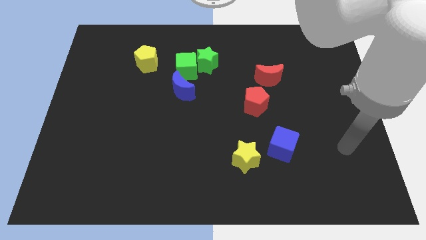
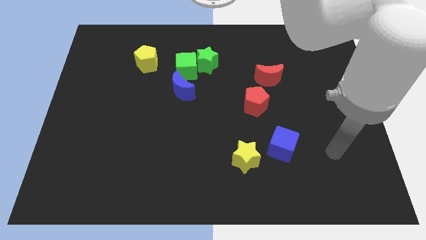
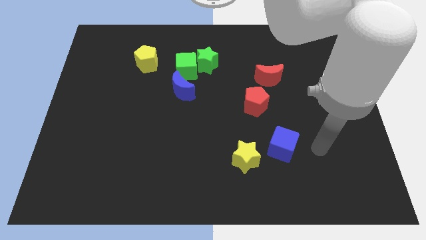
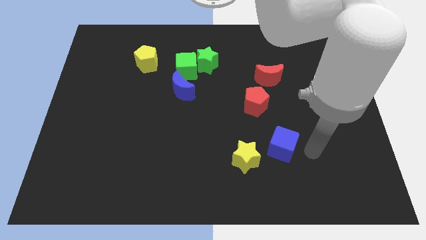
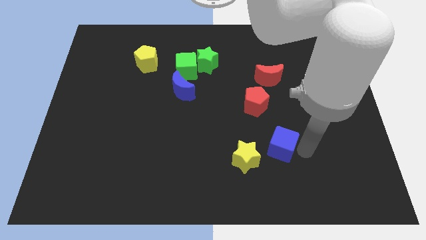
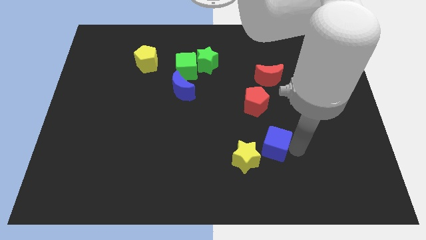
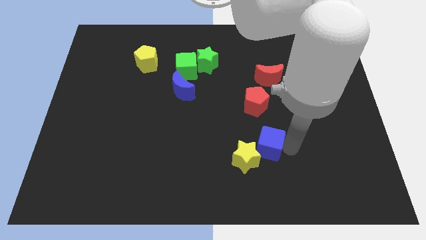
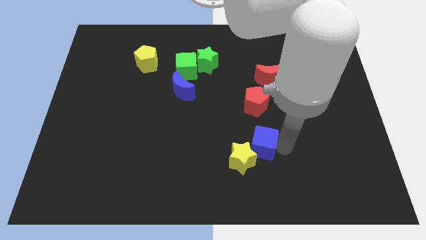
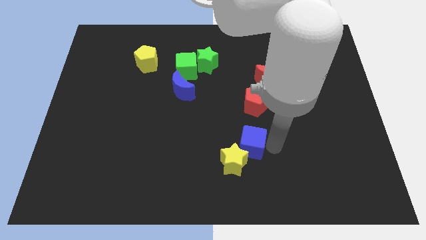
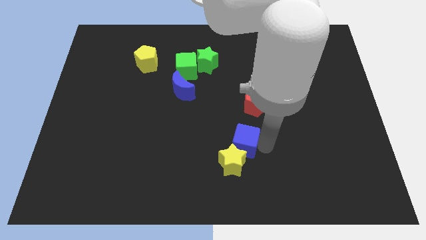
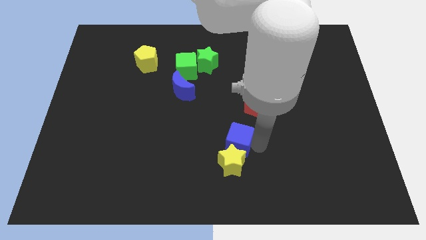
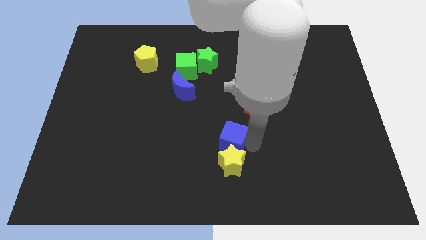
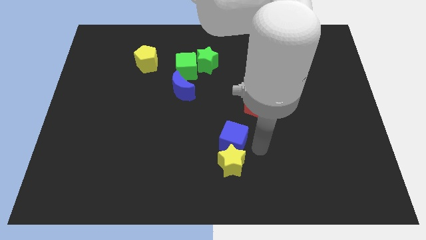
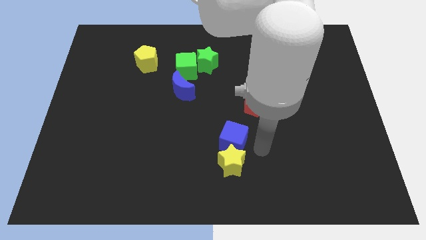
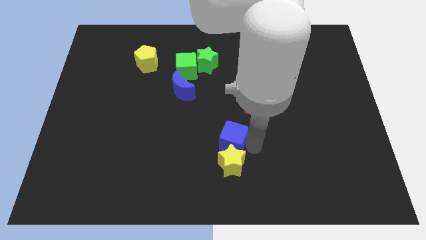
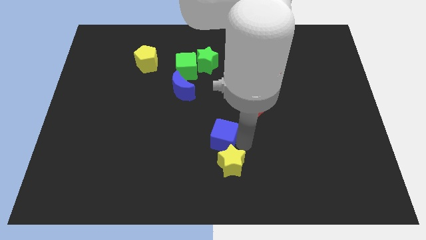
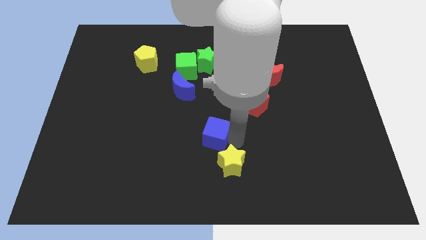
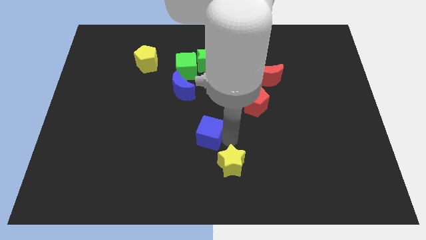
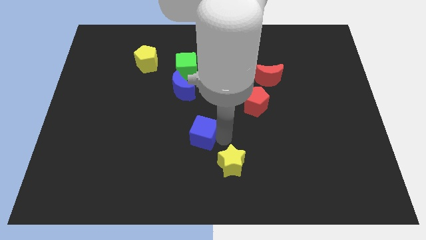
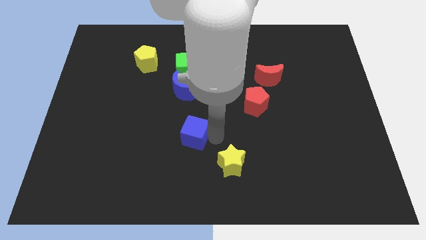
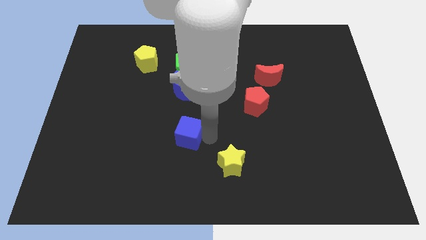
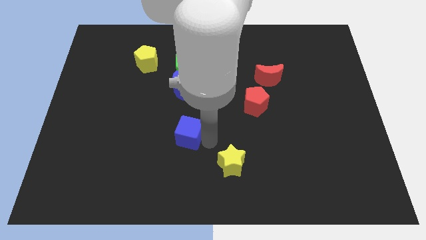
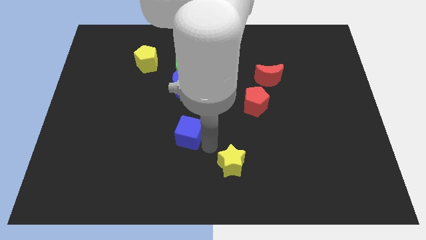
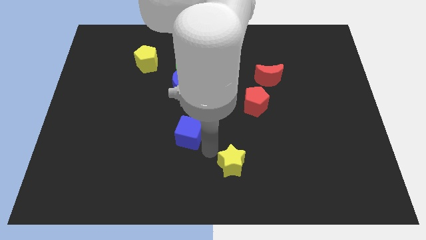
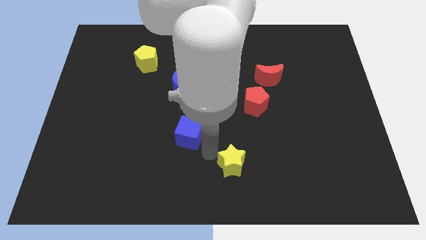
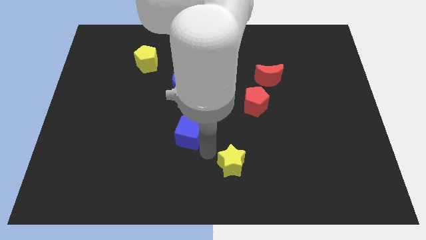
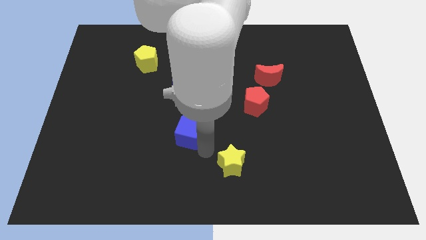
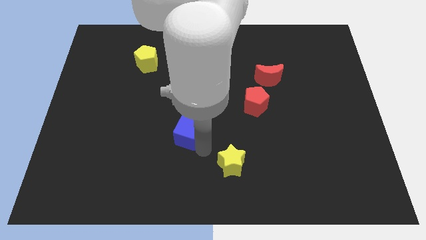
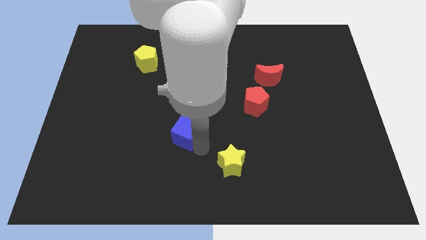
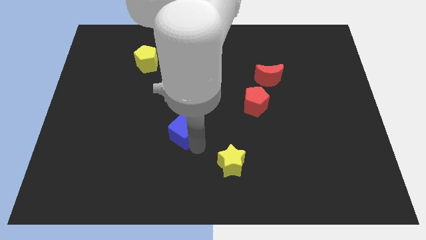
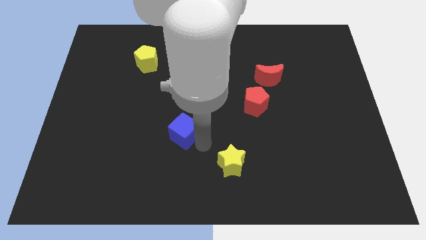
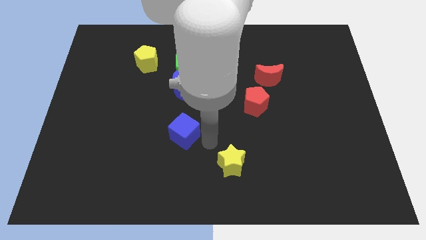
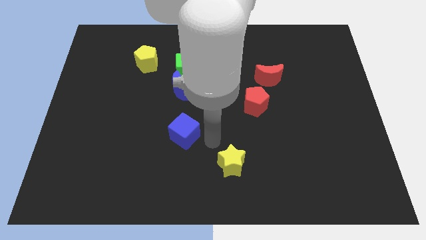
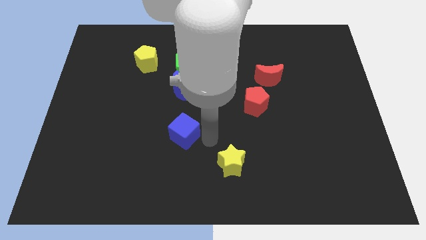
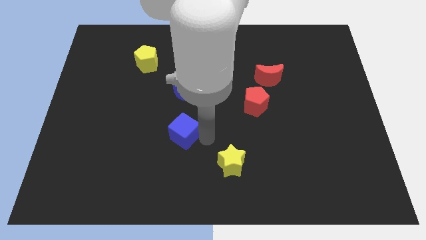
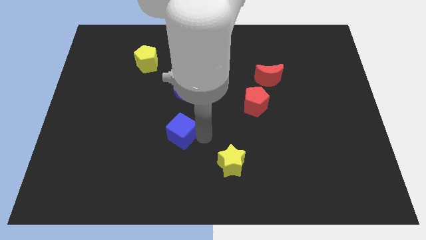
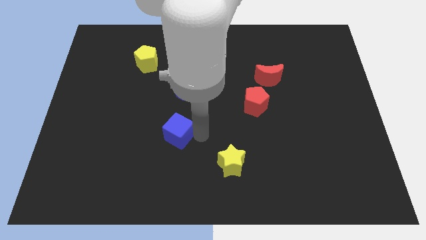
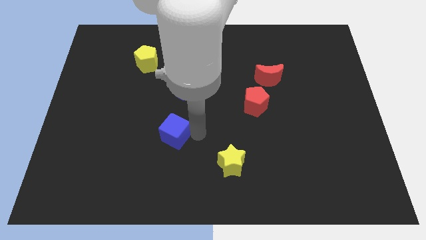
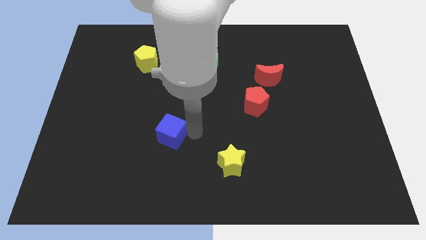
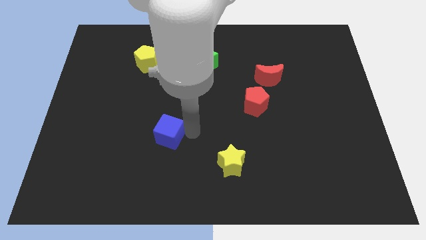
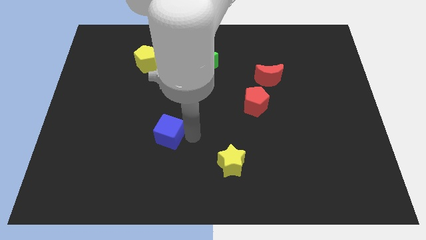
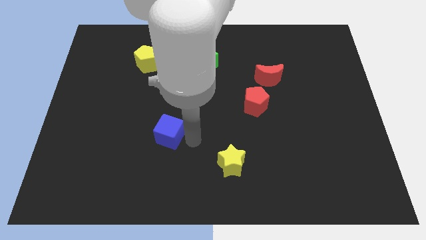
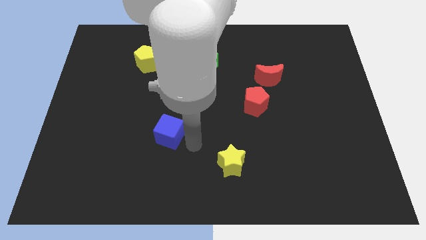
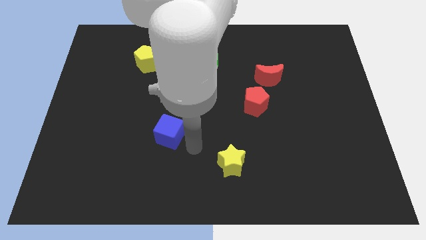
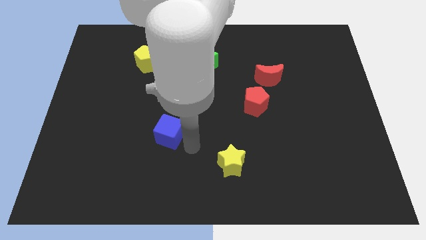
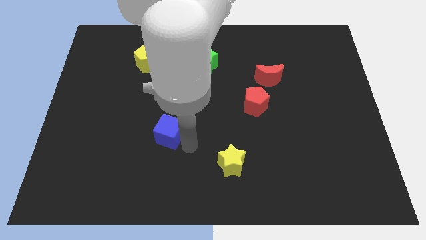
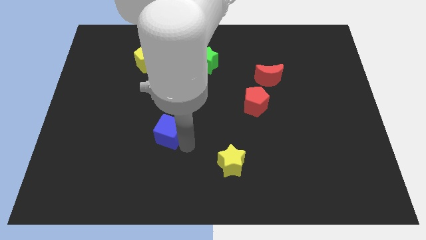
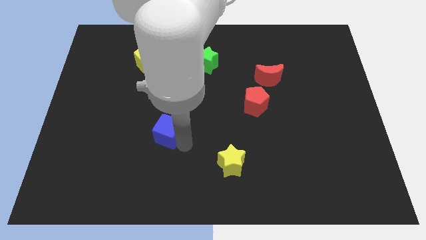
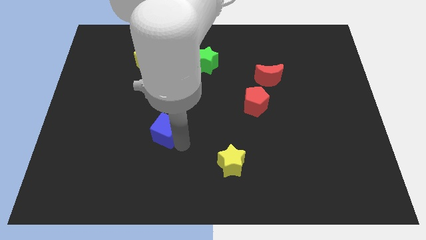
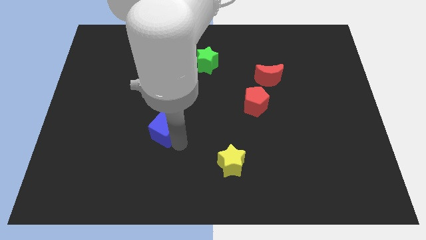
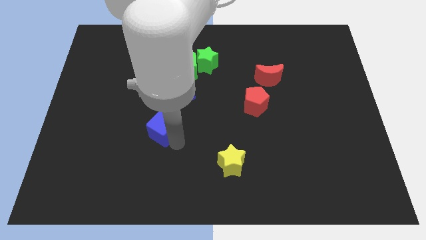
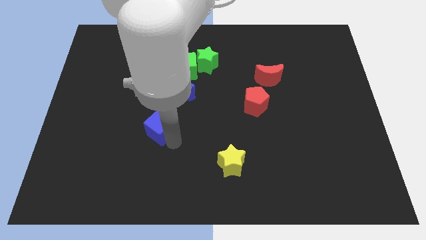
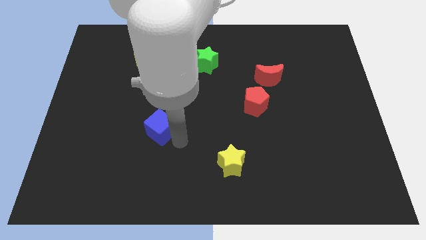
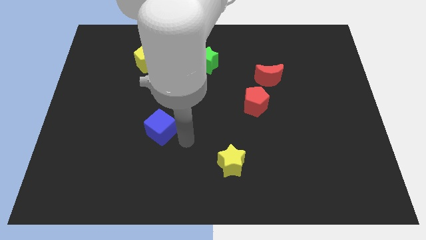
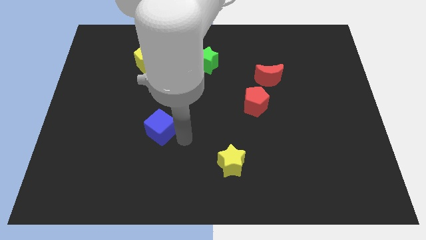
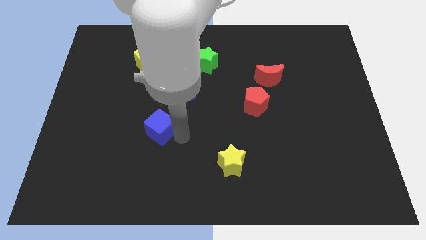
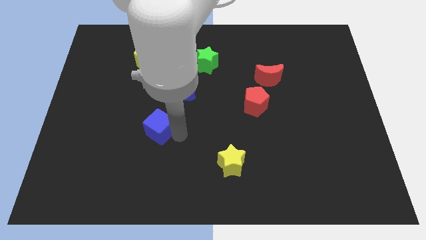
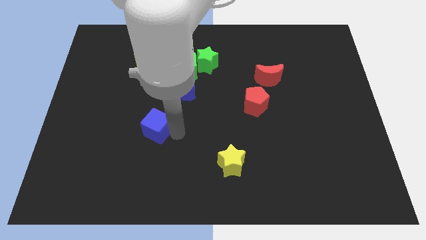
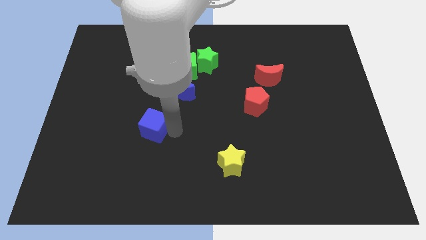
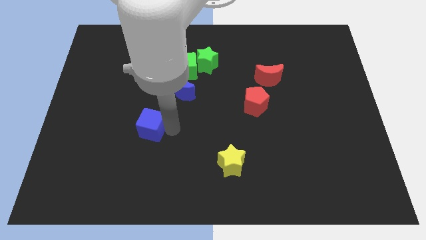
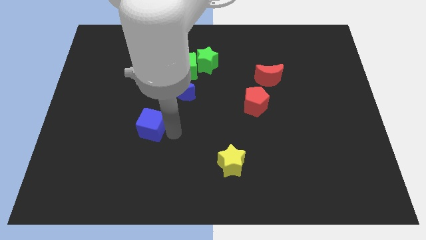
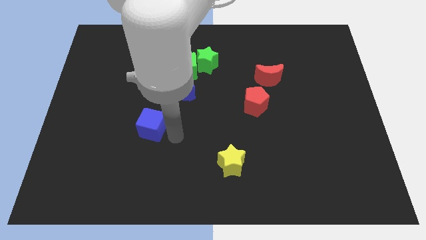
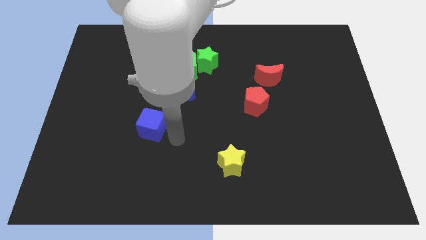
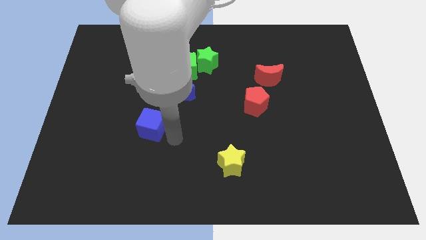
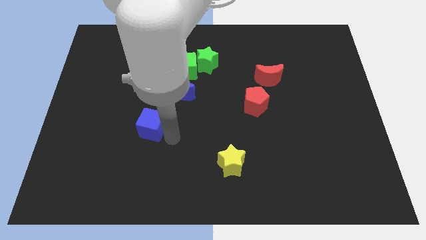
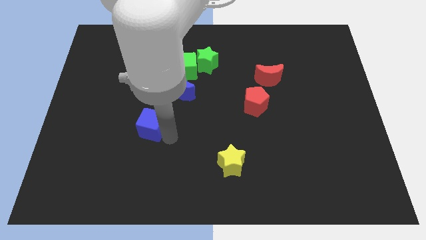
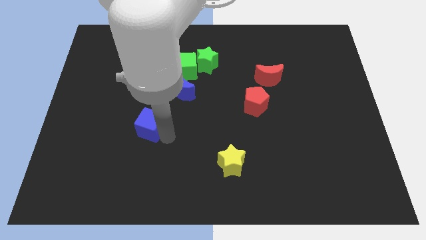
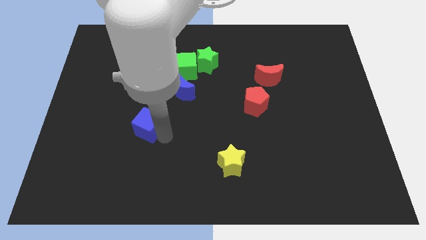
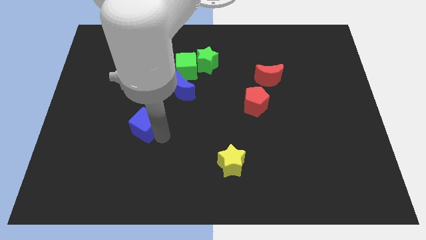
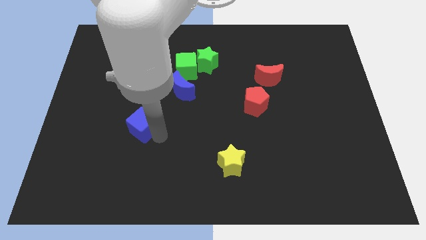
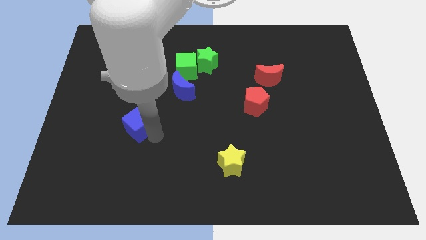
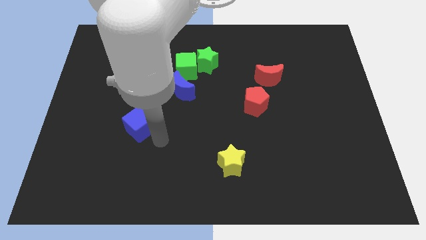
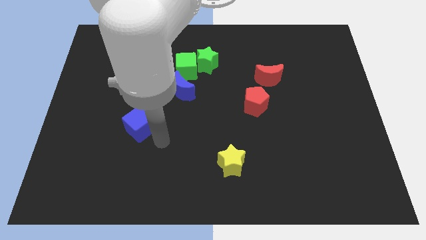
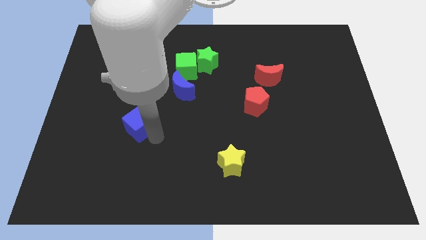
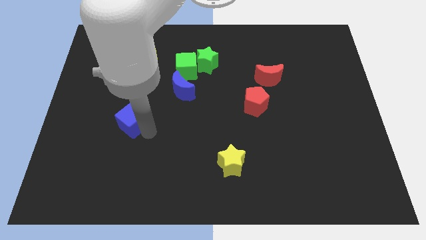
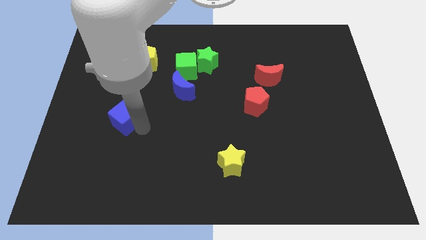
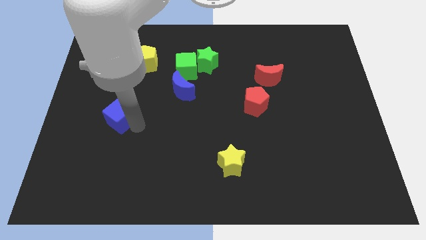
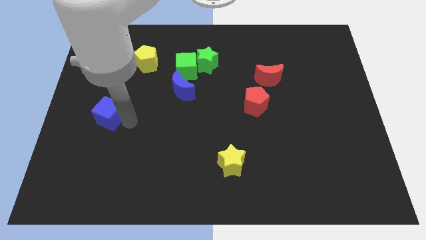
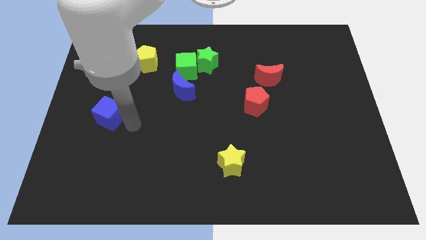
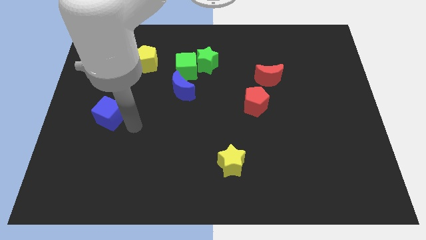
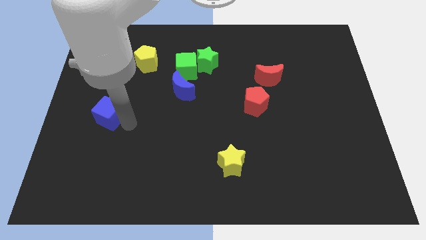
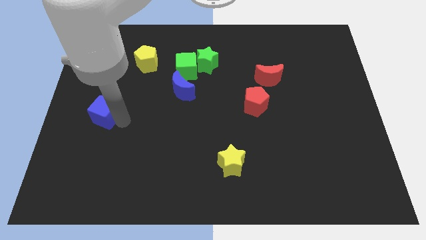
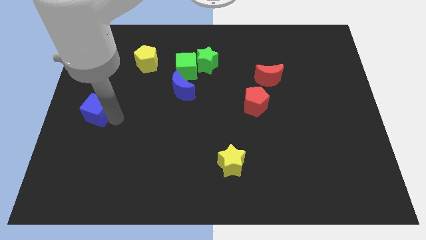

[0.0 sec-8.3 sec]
put the blue cube to the center left
